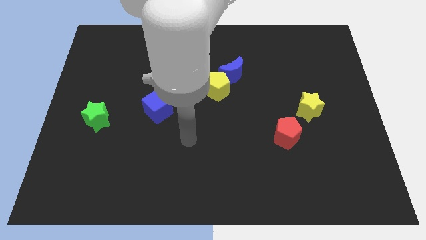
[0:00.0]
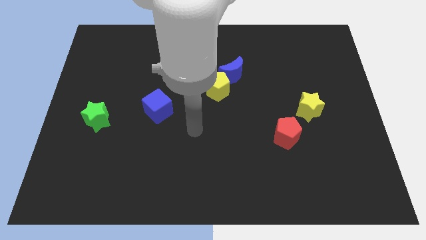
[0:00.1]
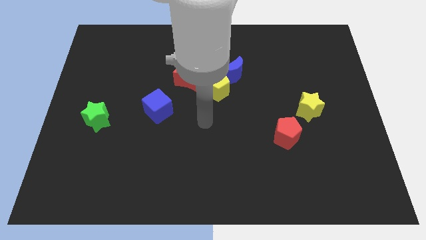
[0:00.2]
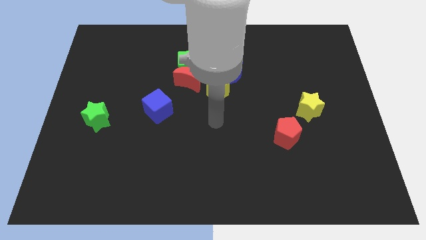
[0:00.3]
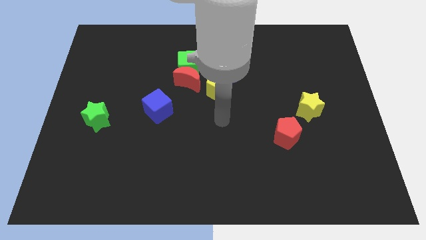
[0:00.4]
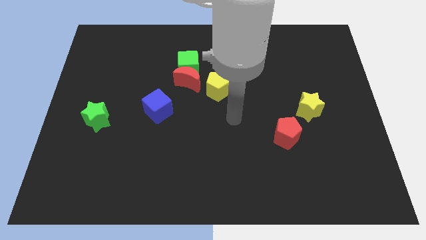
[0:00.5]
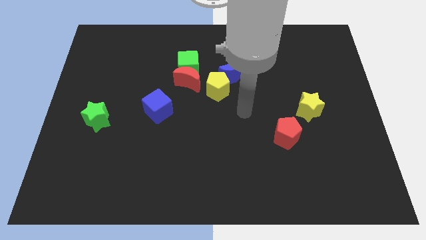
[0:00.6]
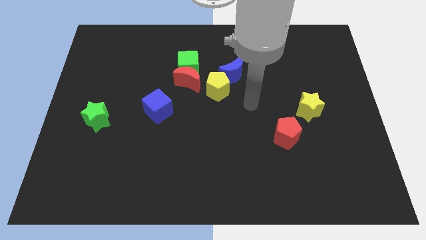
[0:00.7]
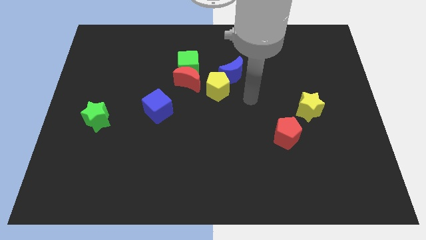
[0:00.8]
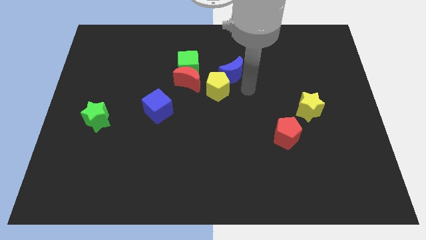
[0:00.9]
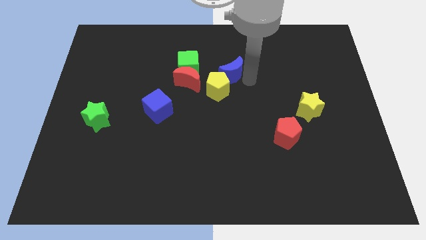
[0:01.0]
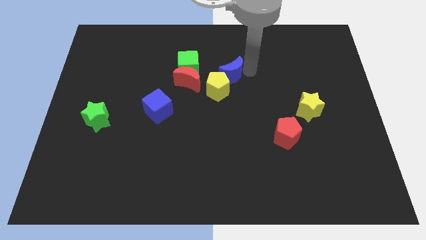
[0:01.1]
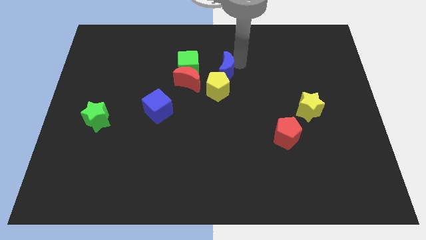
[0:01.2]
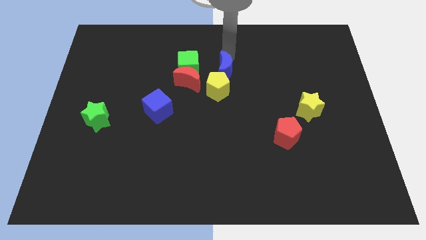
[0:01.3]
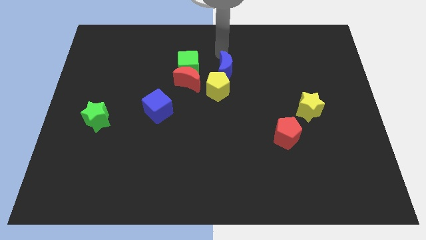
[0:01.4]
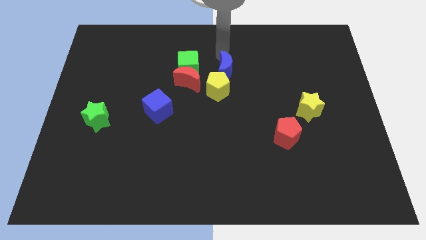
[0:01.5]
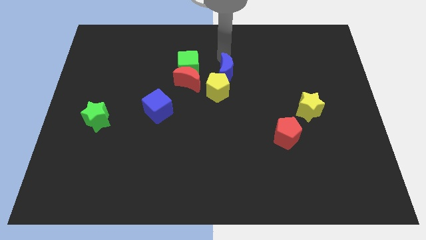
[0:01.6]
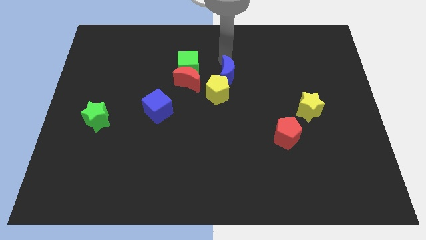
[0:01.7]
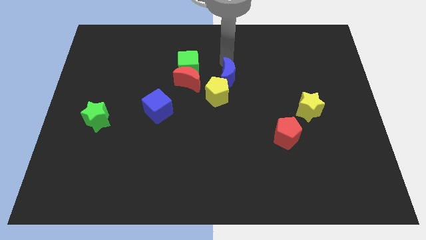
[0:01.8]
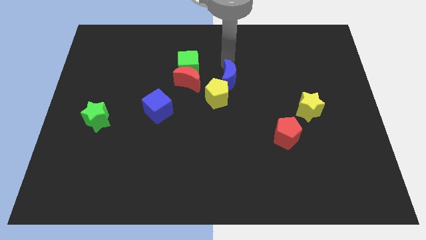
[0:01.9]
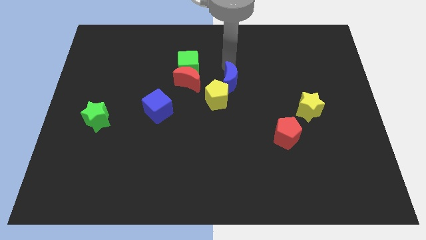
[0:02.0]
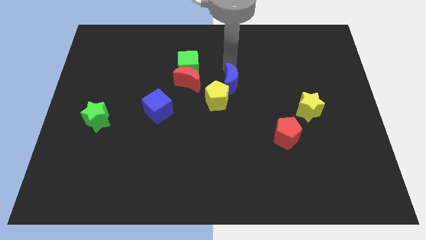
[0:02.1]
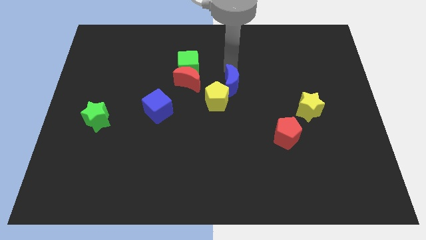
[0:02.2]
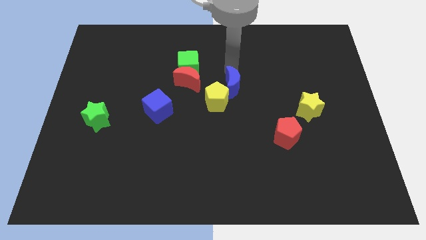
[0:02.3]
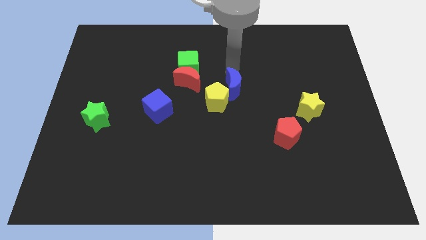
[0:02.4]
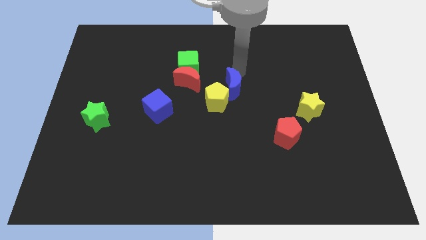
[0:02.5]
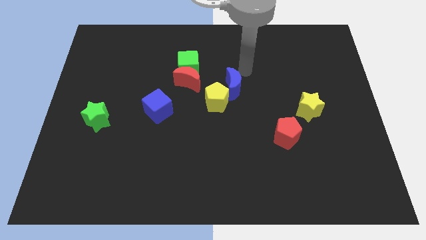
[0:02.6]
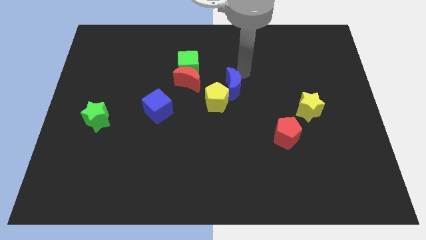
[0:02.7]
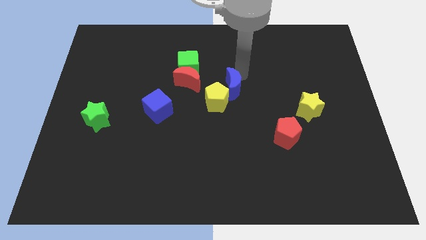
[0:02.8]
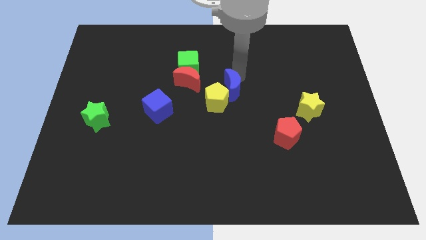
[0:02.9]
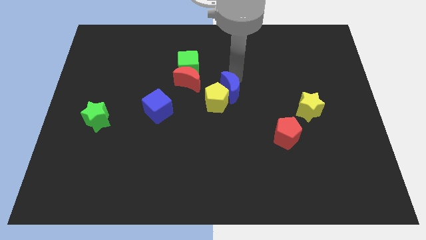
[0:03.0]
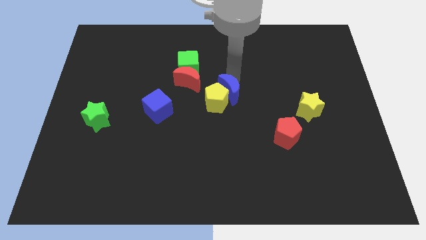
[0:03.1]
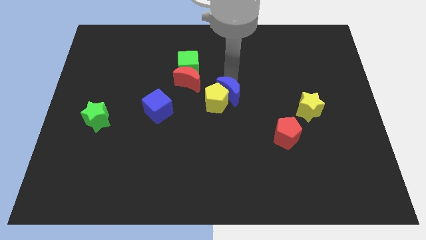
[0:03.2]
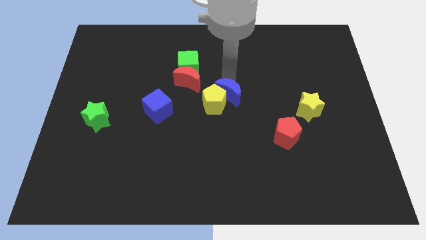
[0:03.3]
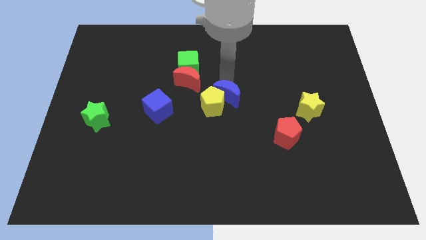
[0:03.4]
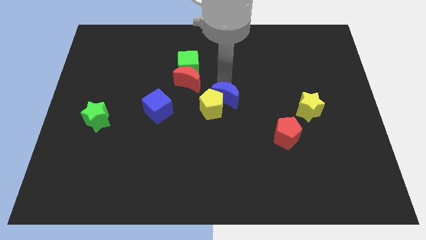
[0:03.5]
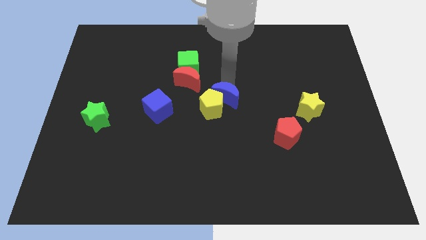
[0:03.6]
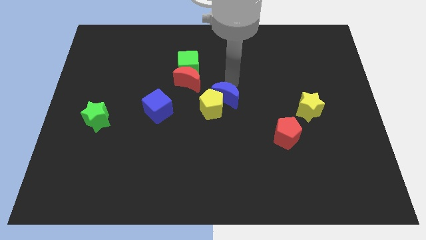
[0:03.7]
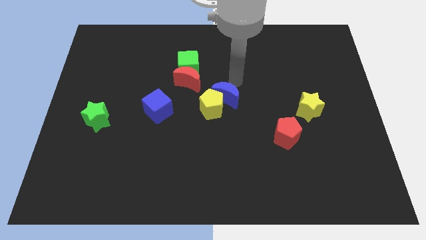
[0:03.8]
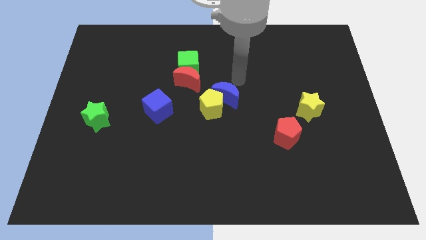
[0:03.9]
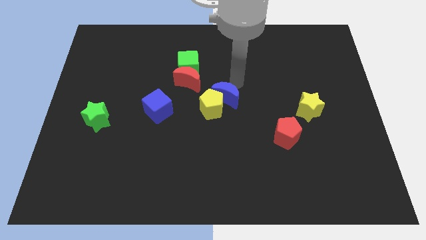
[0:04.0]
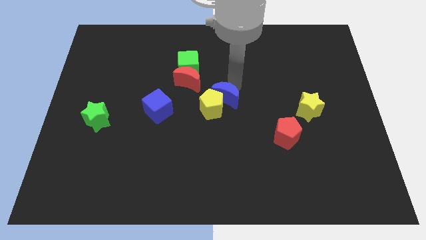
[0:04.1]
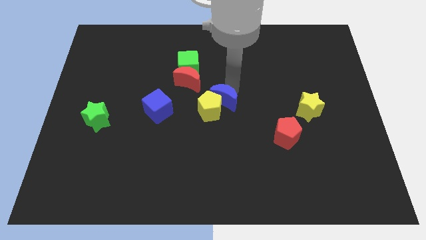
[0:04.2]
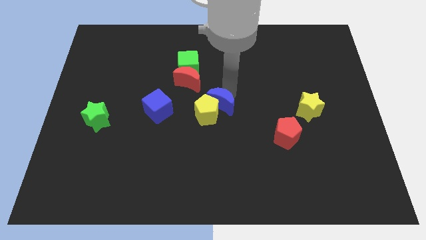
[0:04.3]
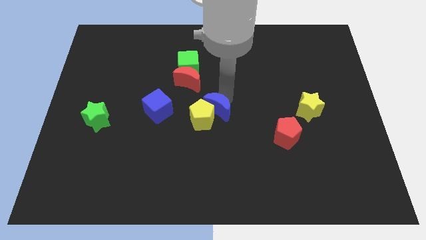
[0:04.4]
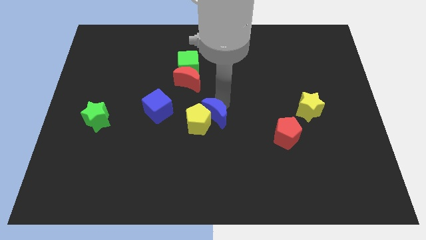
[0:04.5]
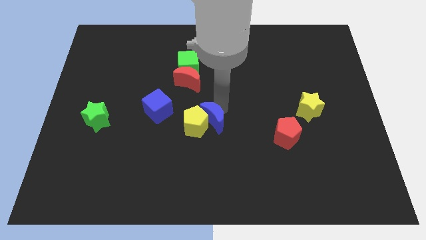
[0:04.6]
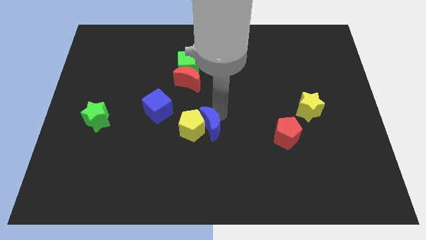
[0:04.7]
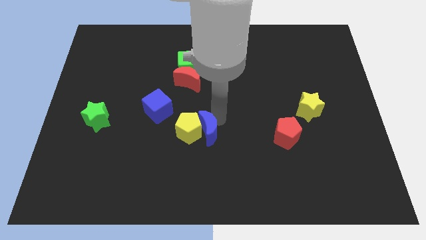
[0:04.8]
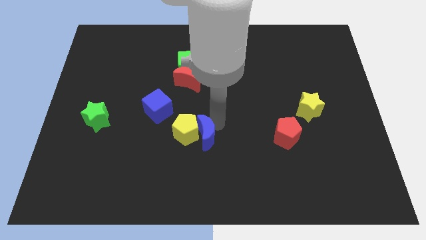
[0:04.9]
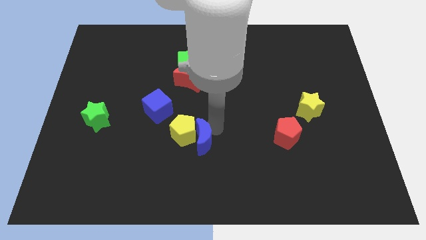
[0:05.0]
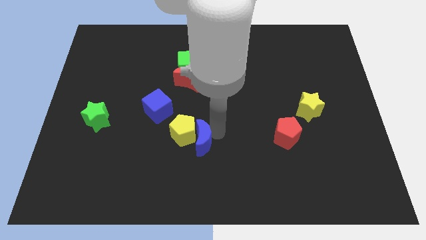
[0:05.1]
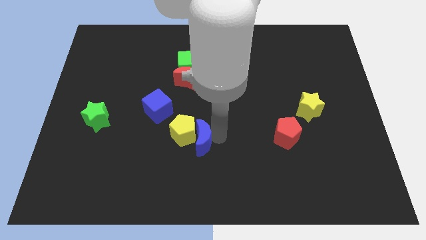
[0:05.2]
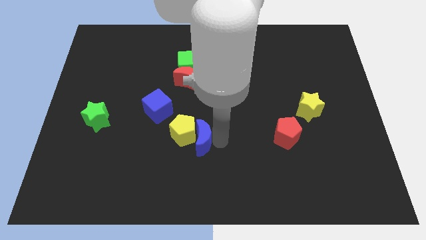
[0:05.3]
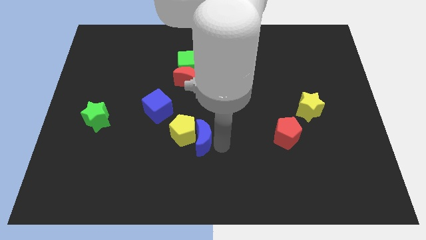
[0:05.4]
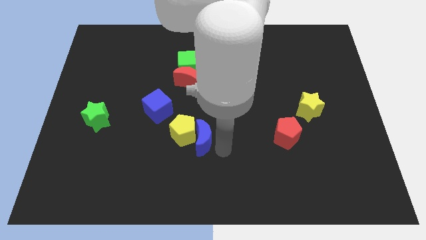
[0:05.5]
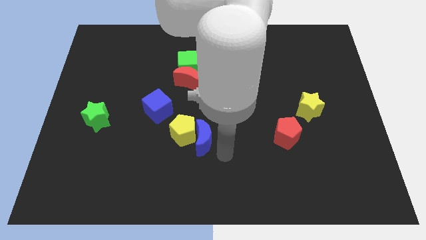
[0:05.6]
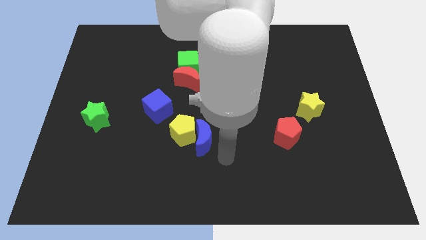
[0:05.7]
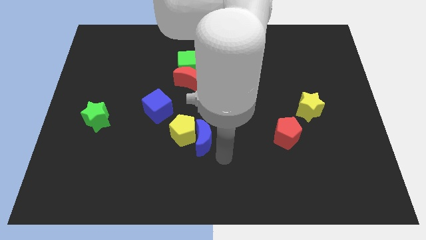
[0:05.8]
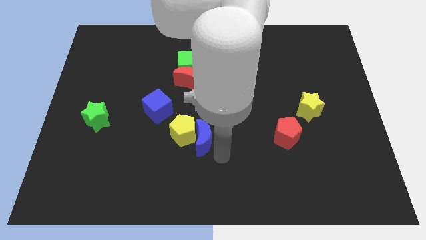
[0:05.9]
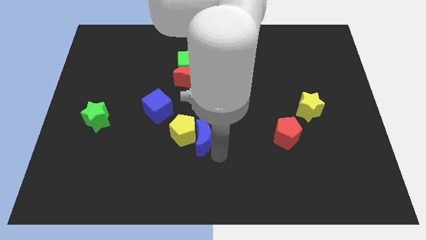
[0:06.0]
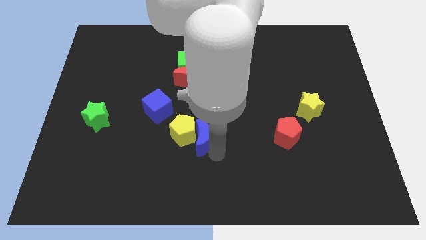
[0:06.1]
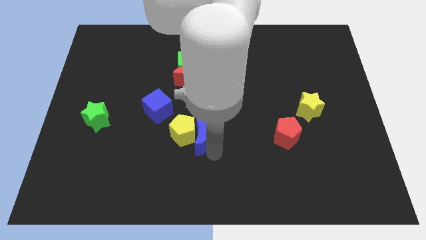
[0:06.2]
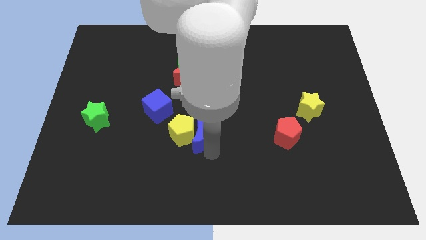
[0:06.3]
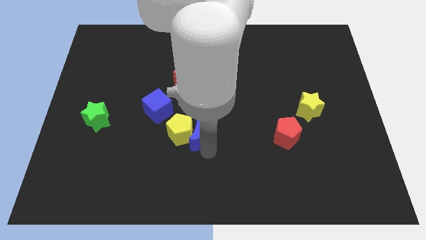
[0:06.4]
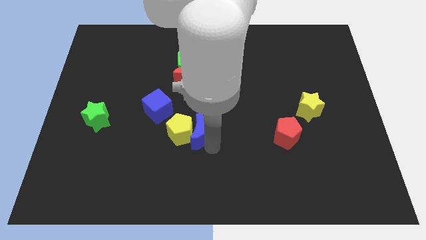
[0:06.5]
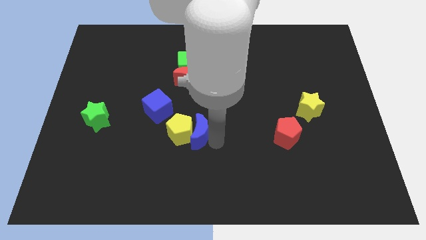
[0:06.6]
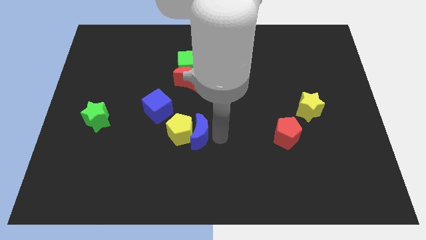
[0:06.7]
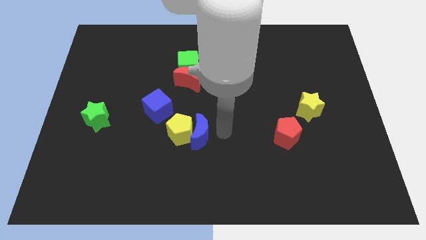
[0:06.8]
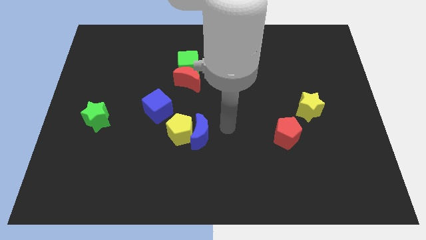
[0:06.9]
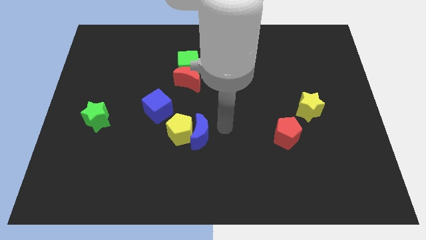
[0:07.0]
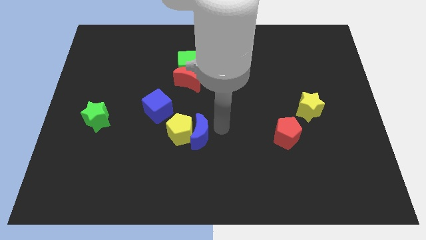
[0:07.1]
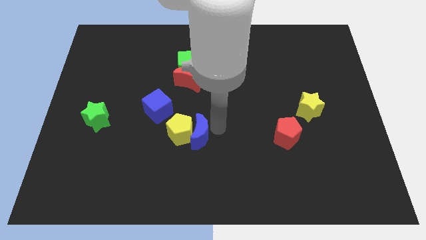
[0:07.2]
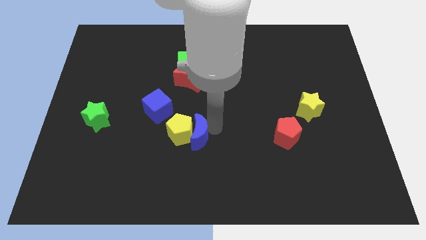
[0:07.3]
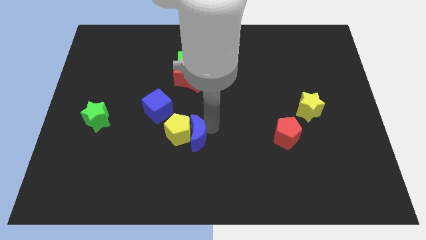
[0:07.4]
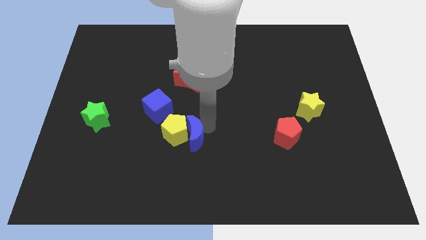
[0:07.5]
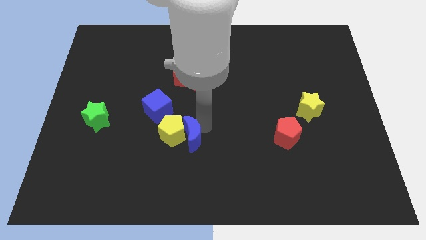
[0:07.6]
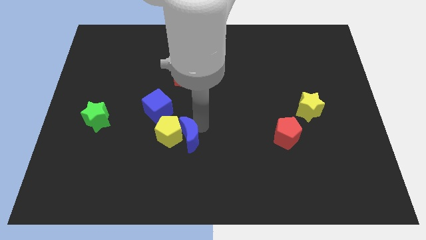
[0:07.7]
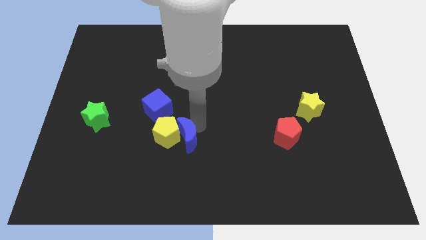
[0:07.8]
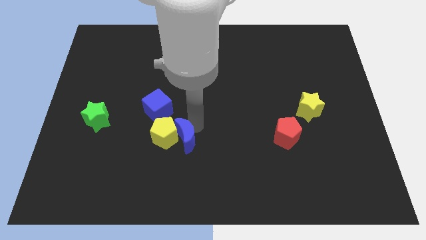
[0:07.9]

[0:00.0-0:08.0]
move the blue moon down and then to the left
